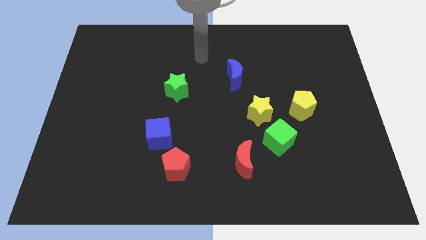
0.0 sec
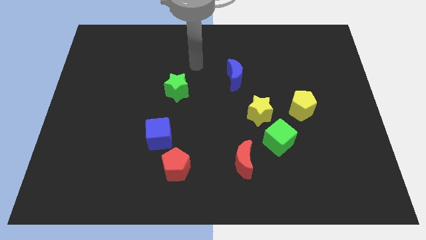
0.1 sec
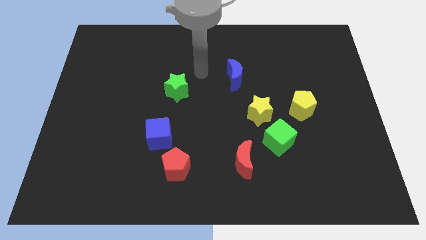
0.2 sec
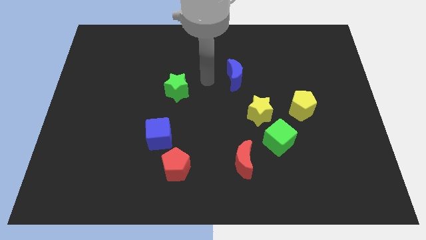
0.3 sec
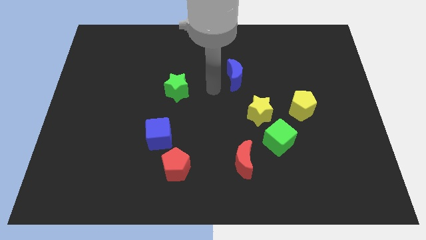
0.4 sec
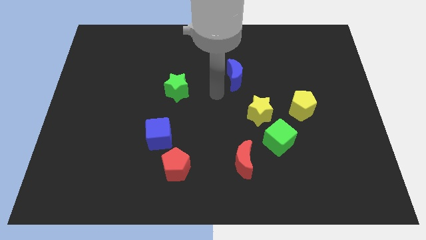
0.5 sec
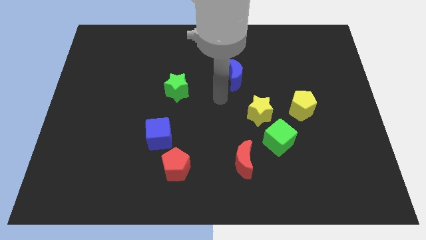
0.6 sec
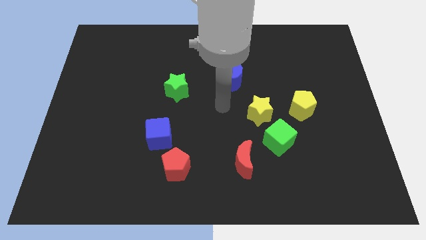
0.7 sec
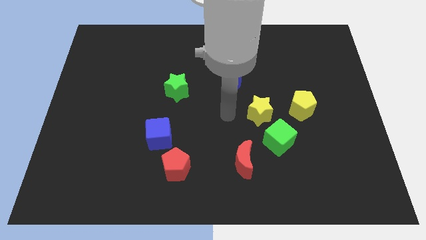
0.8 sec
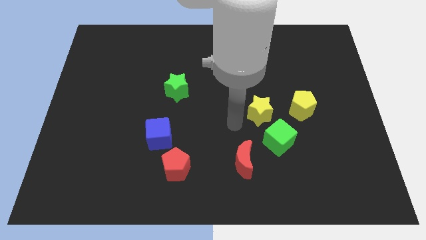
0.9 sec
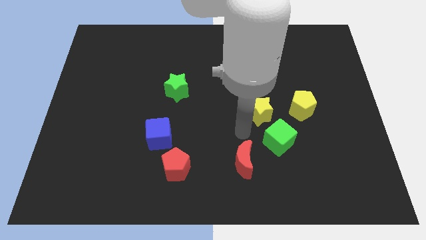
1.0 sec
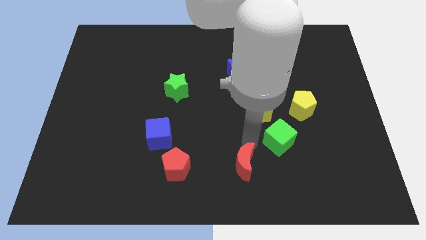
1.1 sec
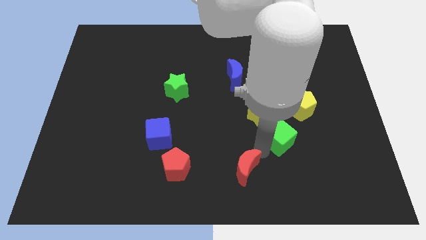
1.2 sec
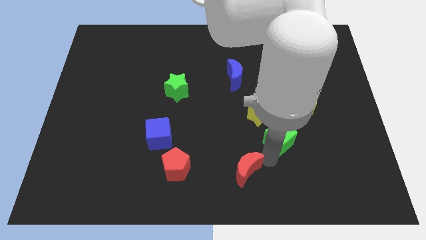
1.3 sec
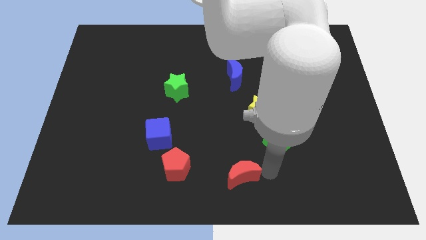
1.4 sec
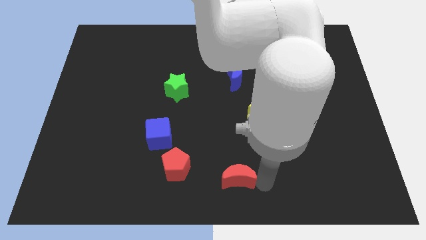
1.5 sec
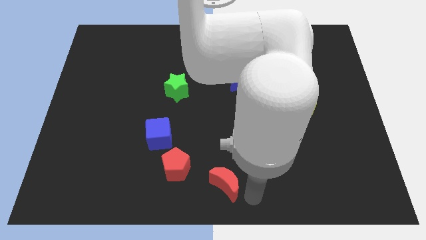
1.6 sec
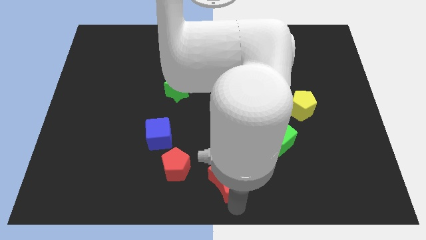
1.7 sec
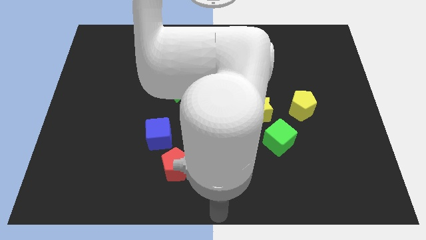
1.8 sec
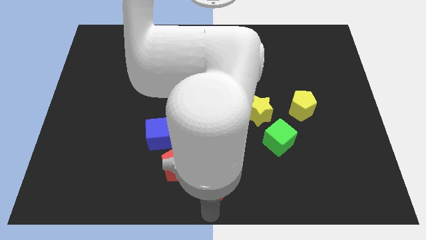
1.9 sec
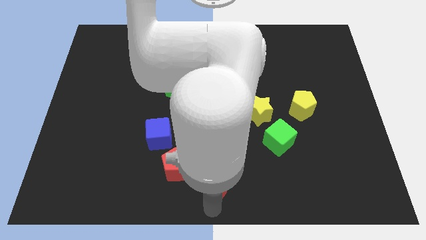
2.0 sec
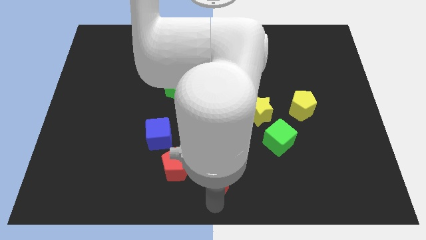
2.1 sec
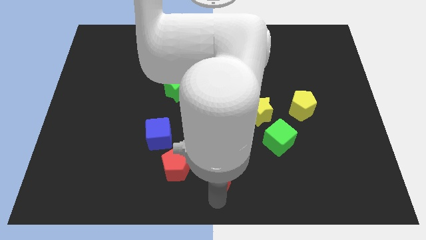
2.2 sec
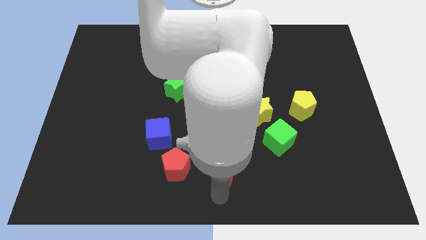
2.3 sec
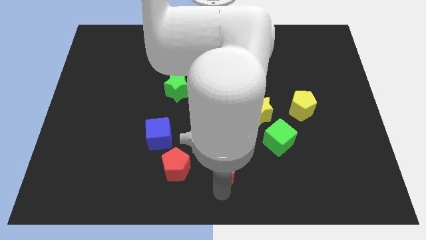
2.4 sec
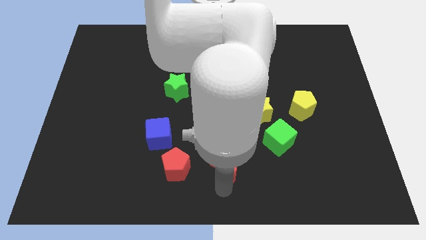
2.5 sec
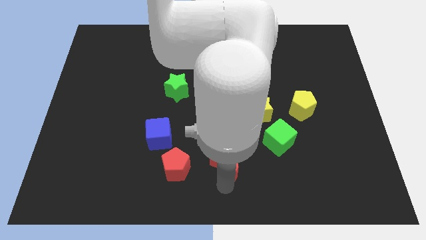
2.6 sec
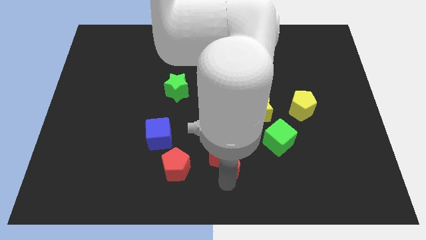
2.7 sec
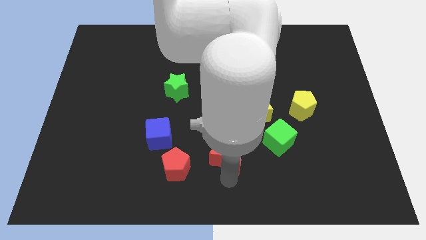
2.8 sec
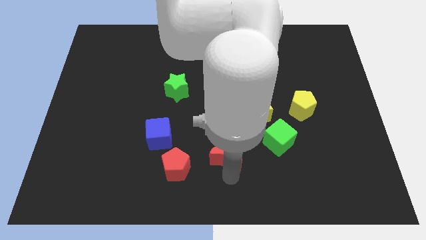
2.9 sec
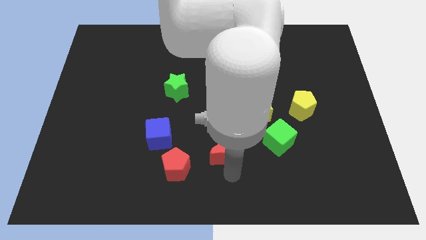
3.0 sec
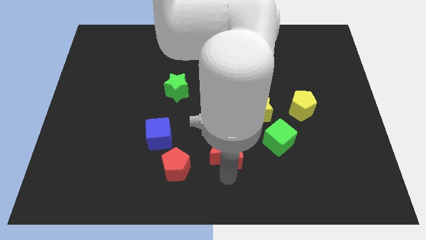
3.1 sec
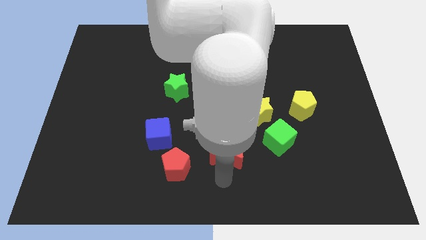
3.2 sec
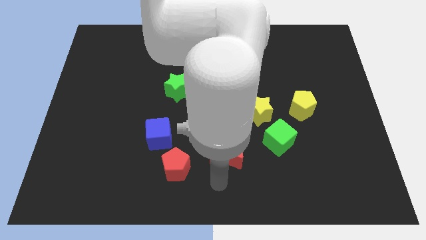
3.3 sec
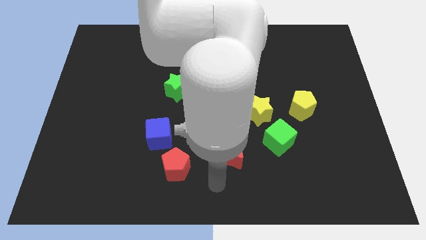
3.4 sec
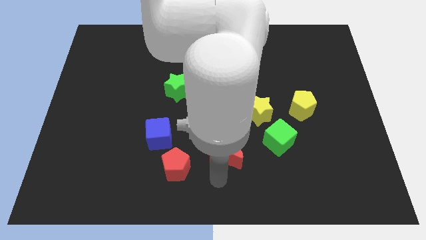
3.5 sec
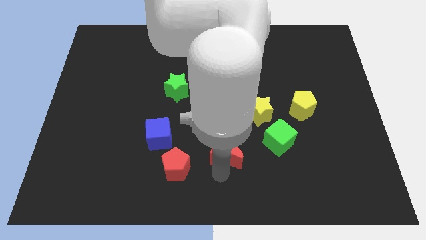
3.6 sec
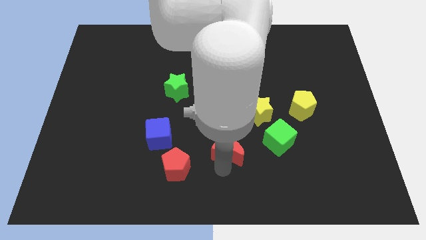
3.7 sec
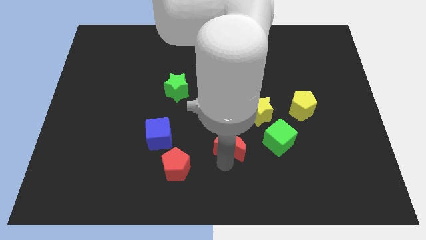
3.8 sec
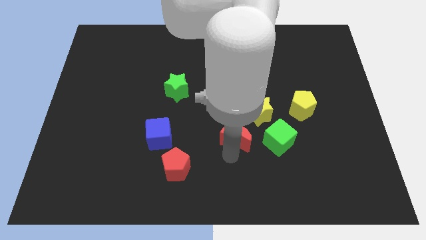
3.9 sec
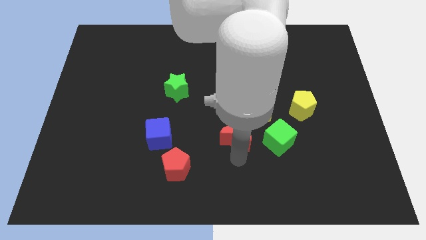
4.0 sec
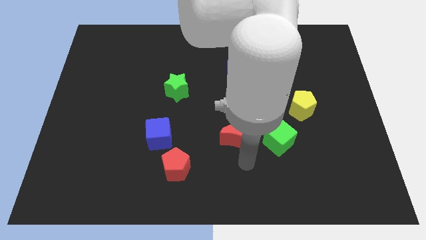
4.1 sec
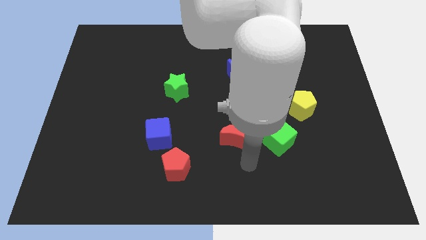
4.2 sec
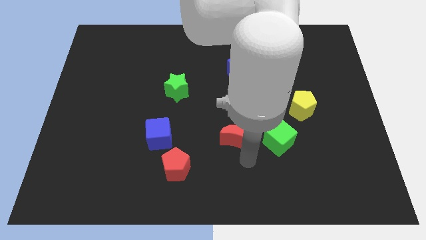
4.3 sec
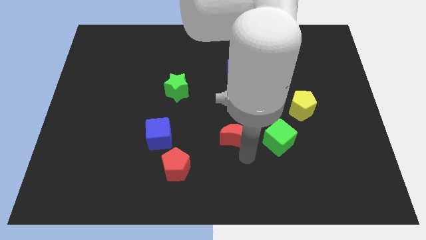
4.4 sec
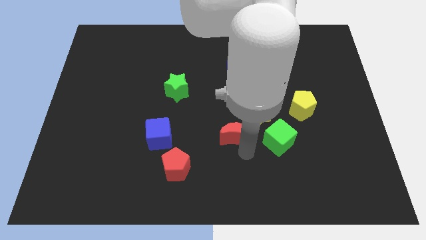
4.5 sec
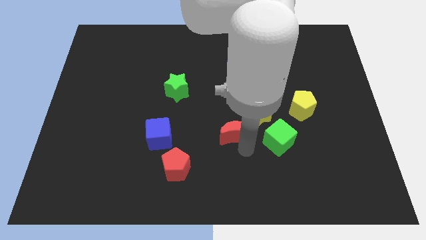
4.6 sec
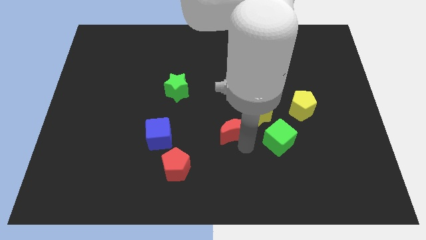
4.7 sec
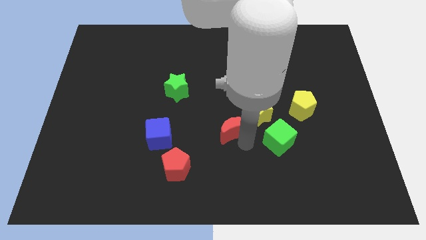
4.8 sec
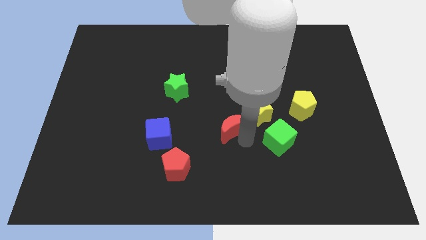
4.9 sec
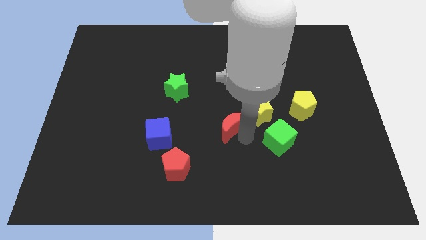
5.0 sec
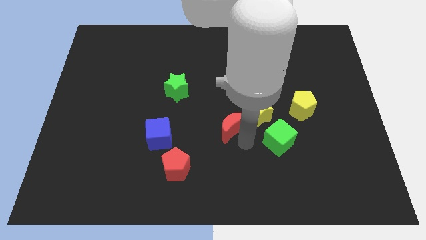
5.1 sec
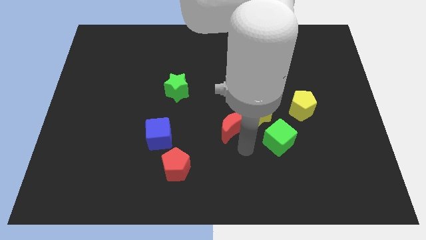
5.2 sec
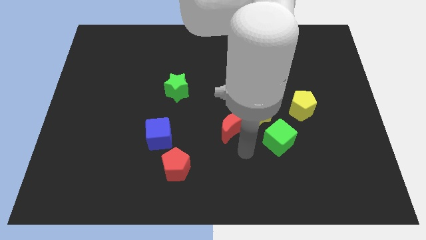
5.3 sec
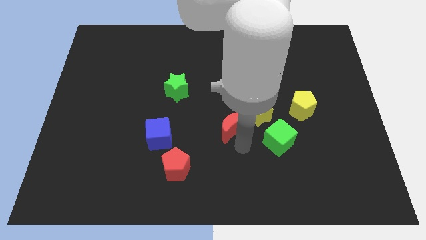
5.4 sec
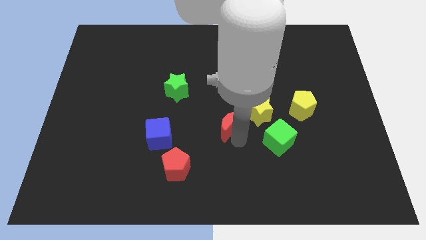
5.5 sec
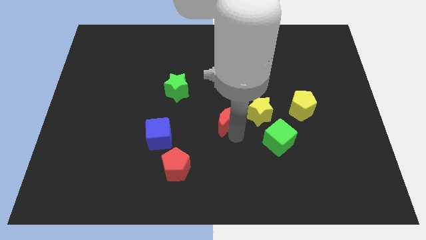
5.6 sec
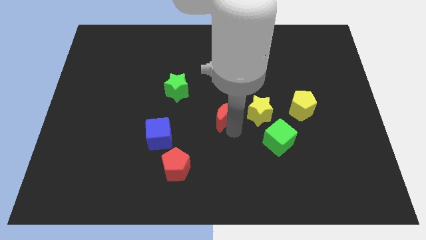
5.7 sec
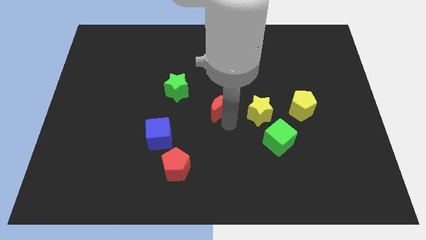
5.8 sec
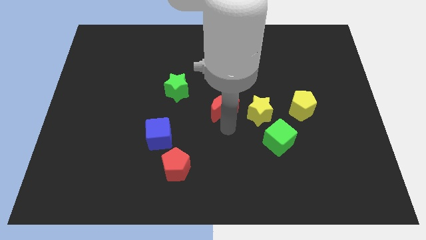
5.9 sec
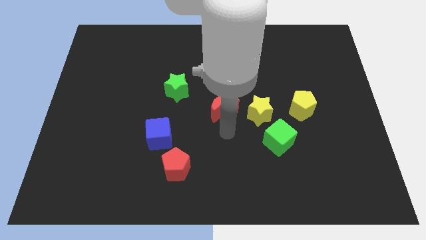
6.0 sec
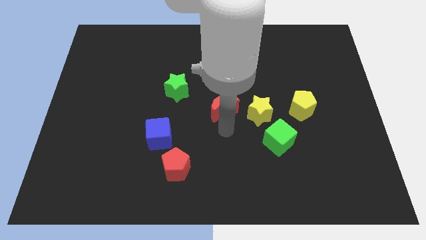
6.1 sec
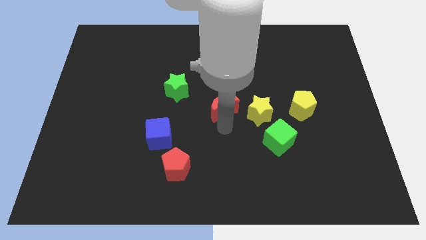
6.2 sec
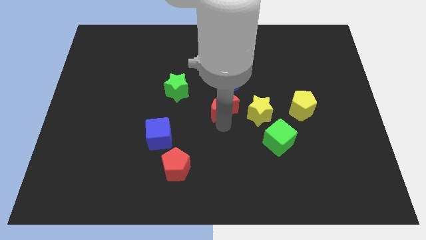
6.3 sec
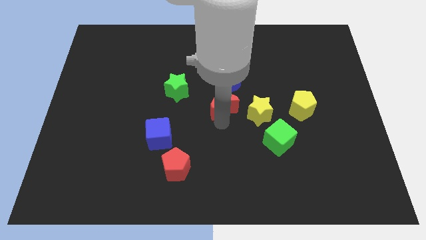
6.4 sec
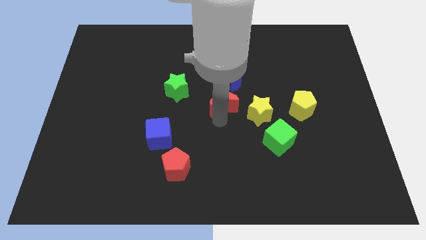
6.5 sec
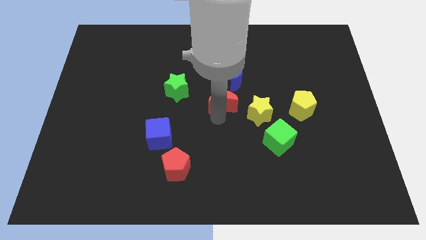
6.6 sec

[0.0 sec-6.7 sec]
move the red moon just right of the green star
